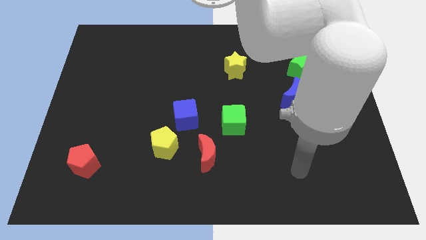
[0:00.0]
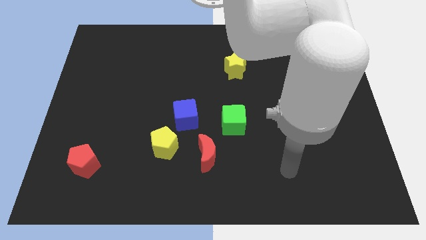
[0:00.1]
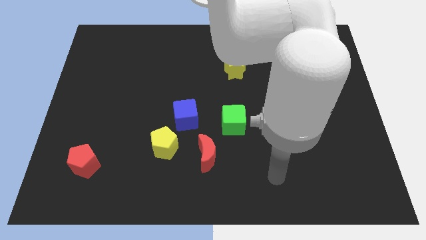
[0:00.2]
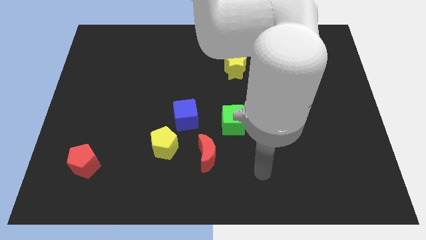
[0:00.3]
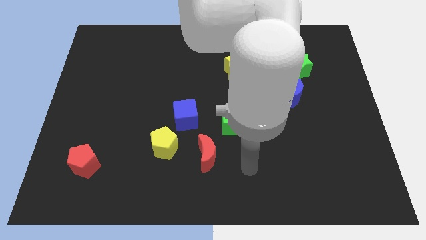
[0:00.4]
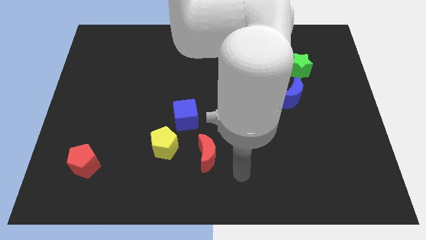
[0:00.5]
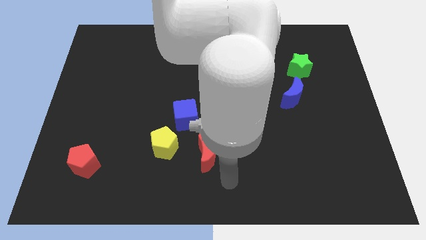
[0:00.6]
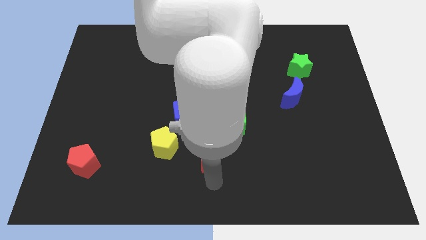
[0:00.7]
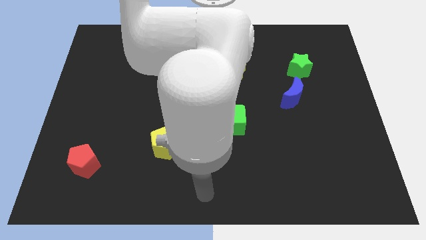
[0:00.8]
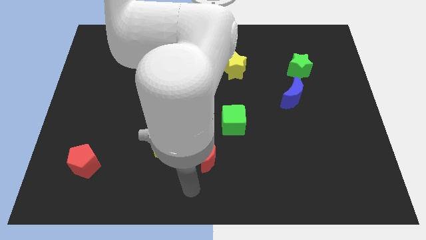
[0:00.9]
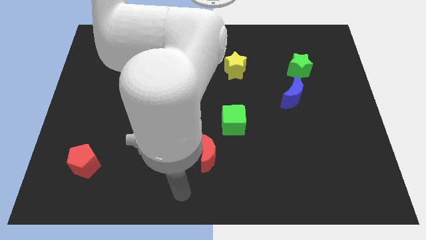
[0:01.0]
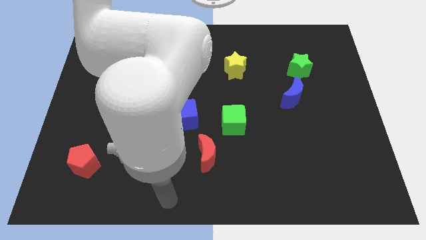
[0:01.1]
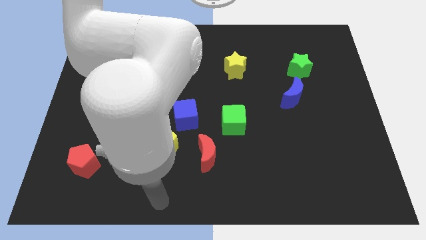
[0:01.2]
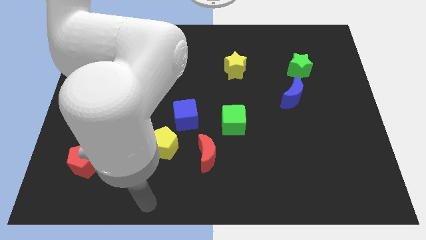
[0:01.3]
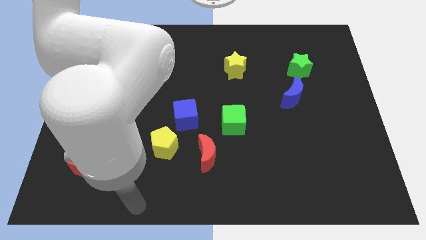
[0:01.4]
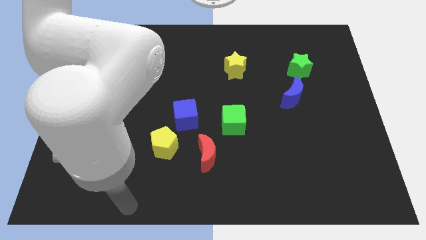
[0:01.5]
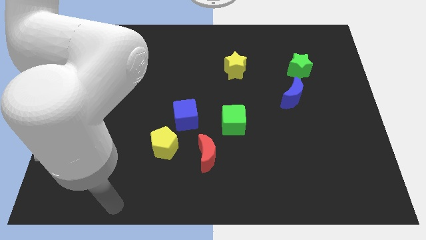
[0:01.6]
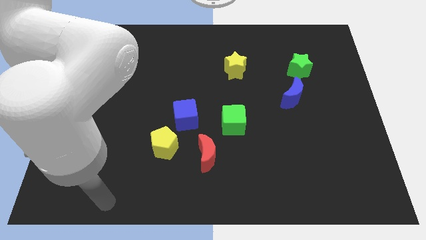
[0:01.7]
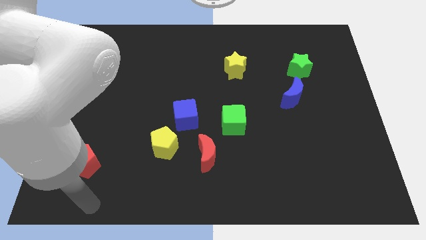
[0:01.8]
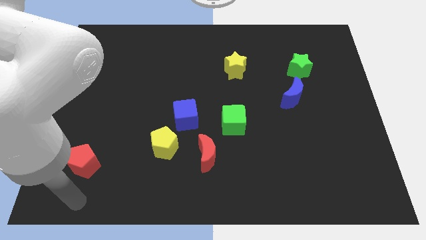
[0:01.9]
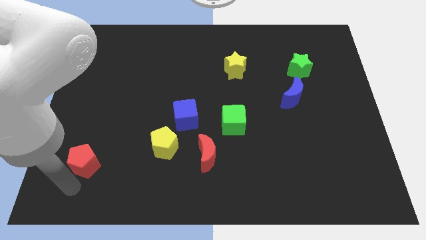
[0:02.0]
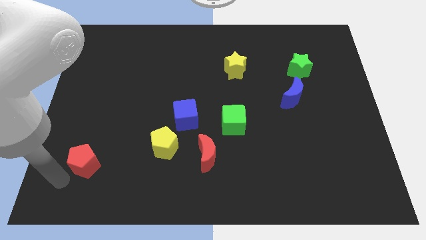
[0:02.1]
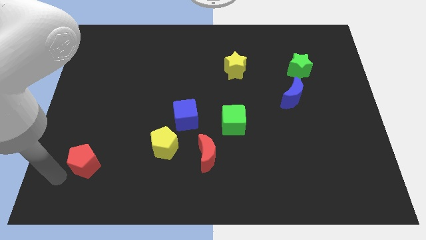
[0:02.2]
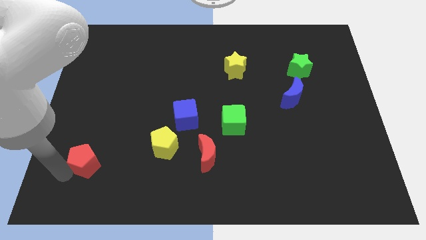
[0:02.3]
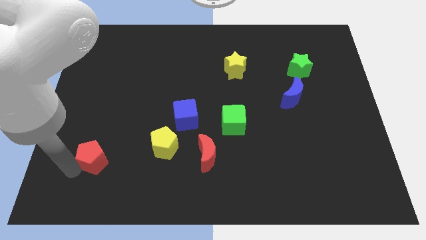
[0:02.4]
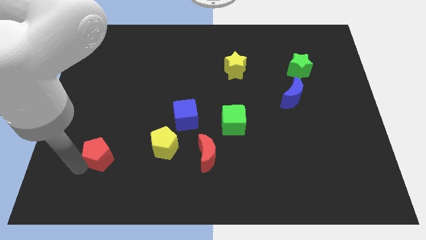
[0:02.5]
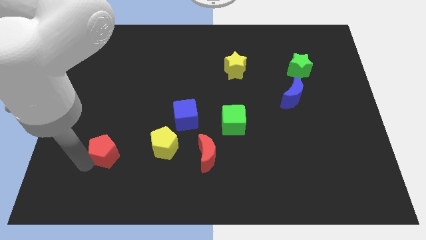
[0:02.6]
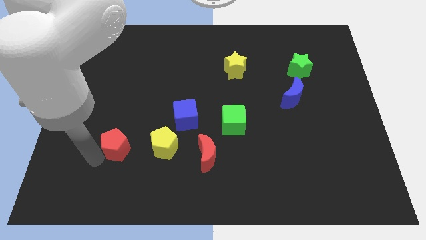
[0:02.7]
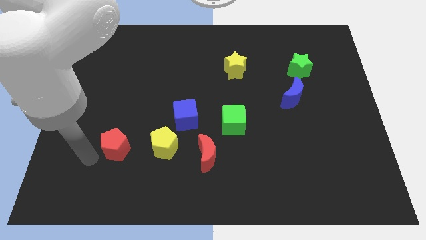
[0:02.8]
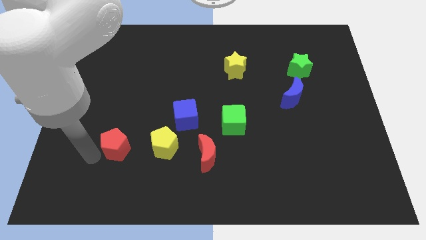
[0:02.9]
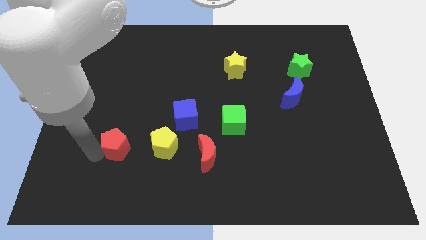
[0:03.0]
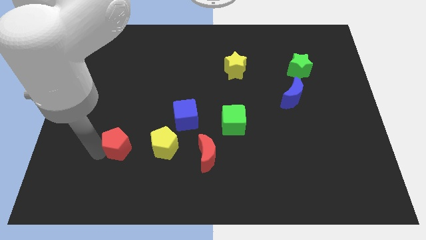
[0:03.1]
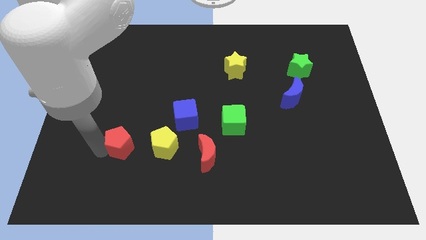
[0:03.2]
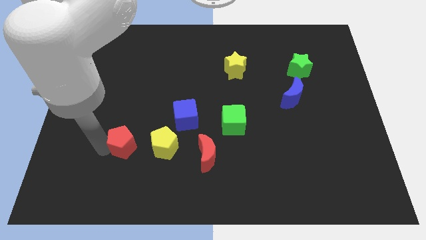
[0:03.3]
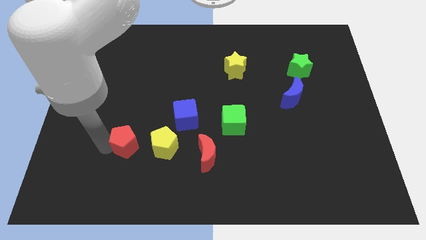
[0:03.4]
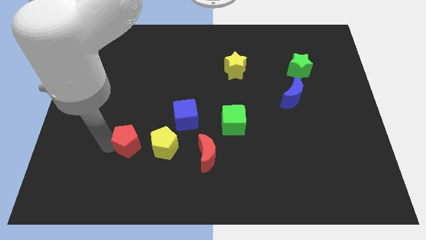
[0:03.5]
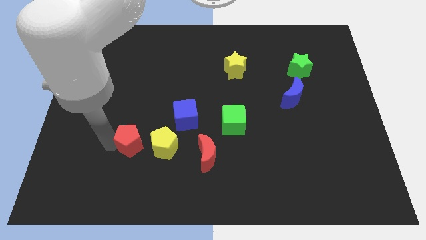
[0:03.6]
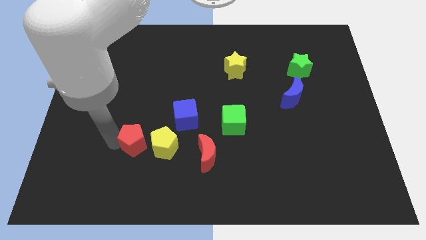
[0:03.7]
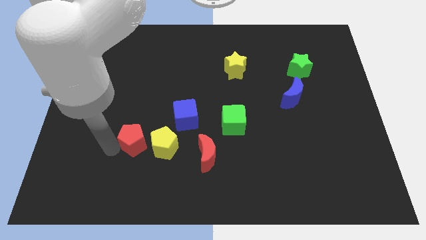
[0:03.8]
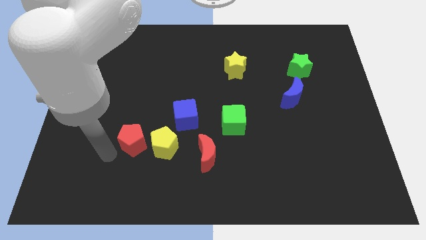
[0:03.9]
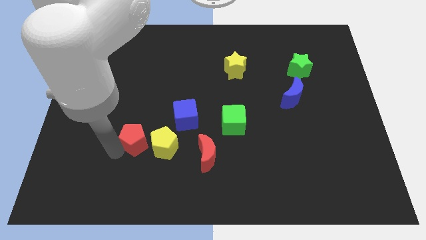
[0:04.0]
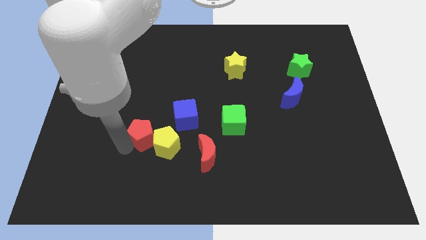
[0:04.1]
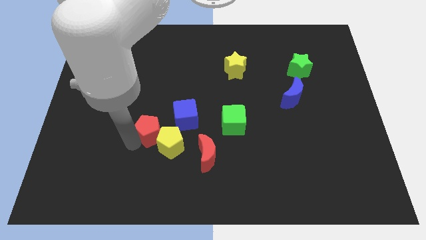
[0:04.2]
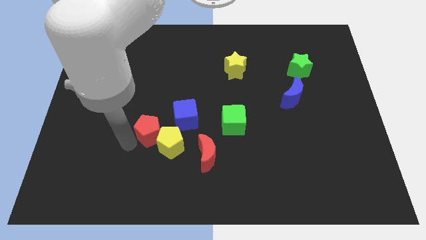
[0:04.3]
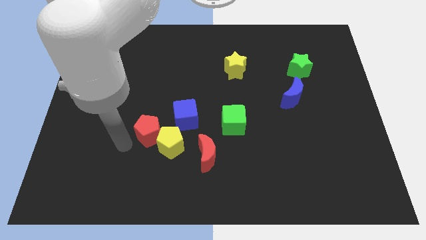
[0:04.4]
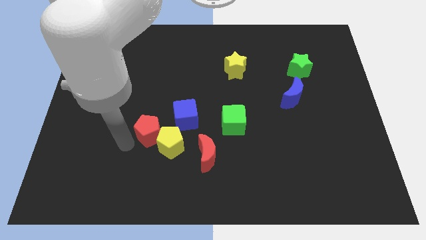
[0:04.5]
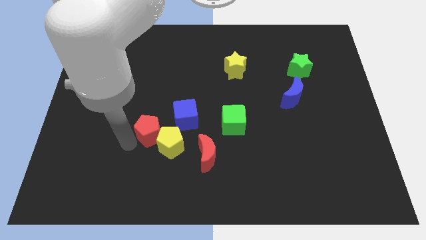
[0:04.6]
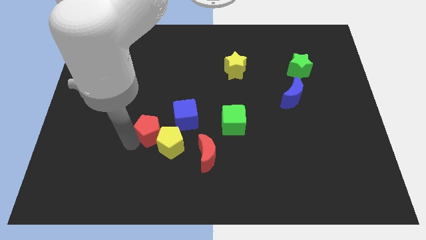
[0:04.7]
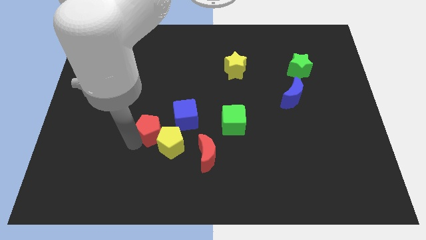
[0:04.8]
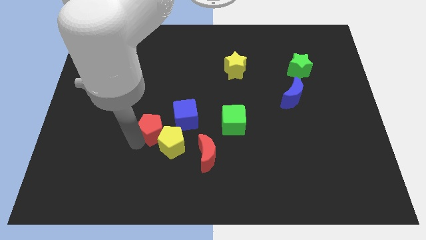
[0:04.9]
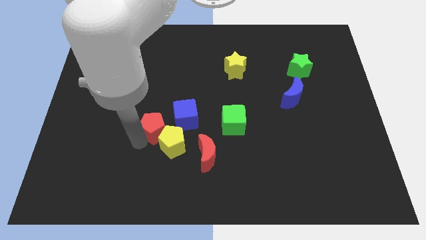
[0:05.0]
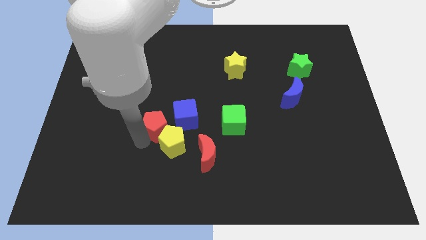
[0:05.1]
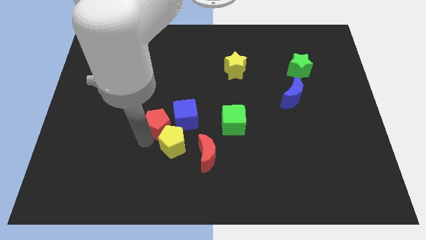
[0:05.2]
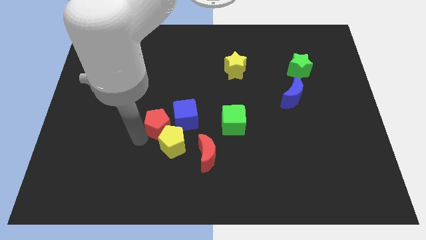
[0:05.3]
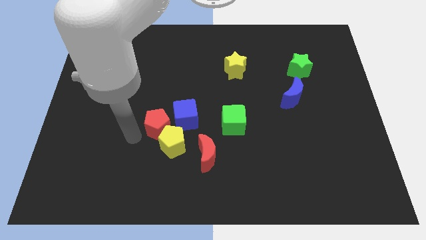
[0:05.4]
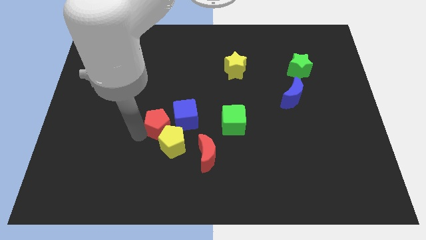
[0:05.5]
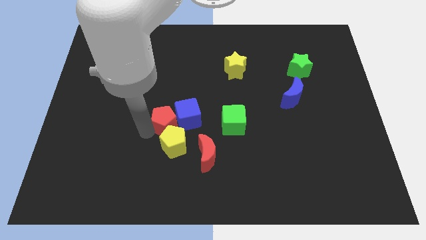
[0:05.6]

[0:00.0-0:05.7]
push the red pentagon to the blue cube

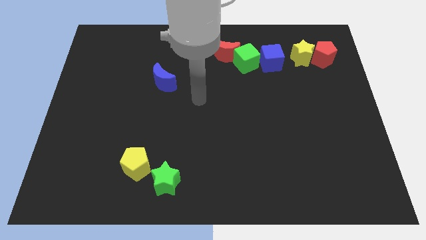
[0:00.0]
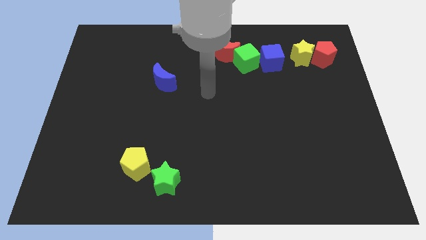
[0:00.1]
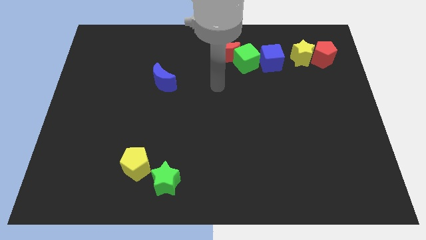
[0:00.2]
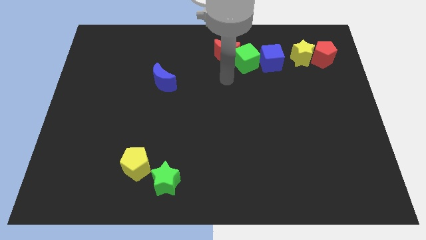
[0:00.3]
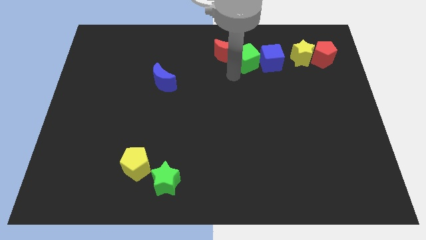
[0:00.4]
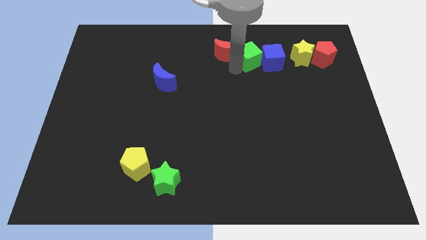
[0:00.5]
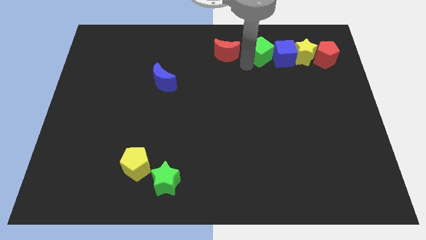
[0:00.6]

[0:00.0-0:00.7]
slide the blue cube towards the yellow star
